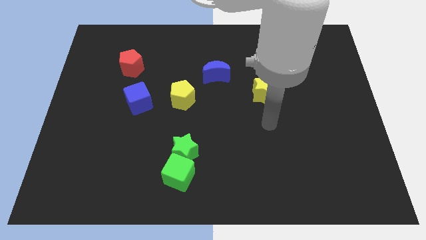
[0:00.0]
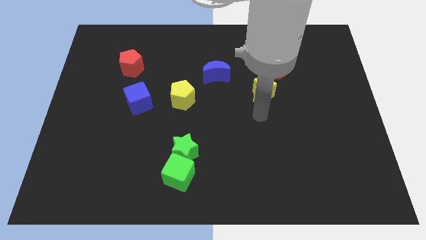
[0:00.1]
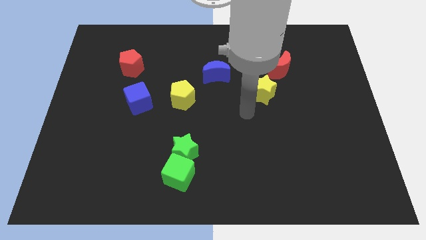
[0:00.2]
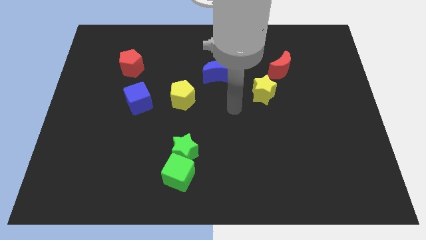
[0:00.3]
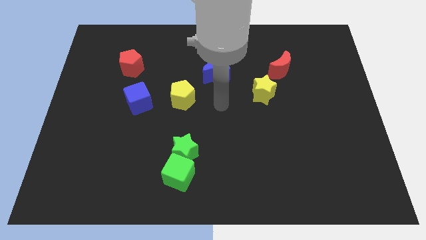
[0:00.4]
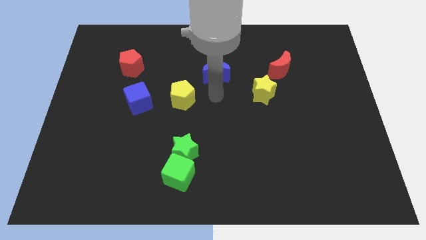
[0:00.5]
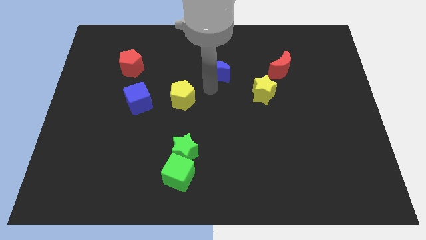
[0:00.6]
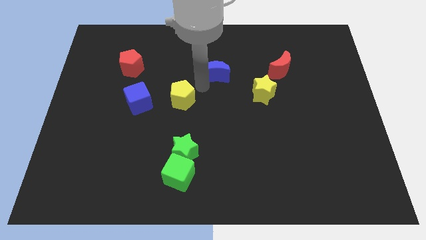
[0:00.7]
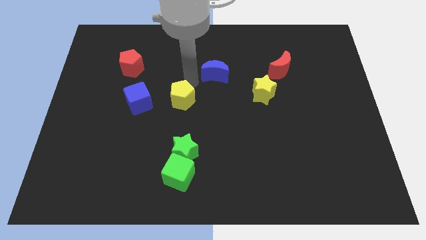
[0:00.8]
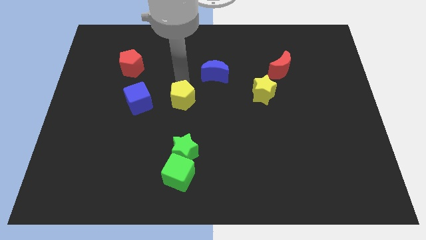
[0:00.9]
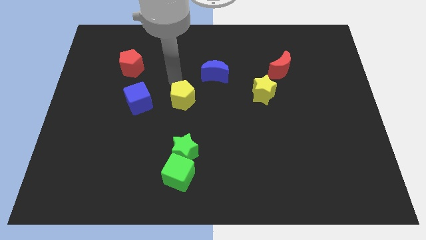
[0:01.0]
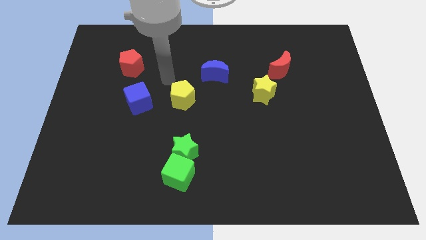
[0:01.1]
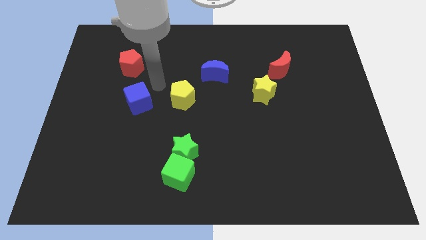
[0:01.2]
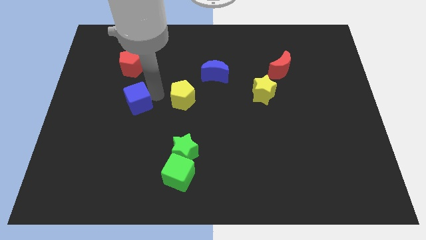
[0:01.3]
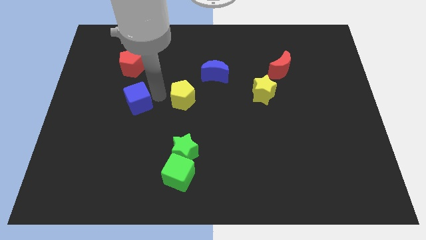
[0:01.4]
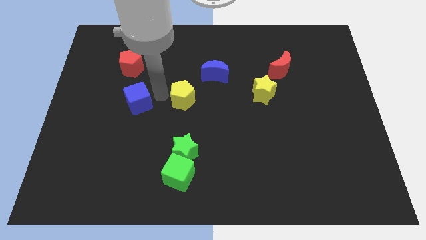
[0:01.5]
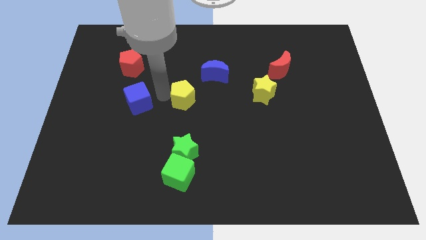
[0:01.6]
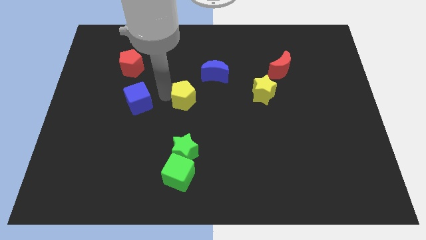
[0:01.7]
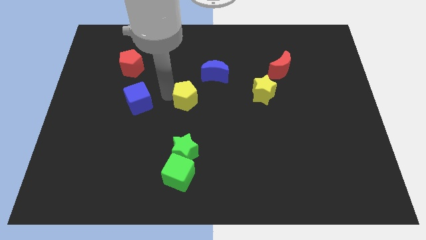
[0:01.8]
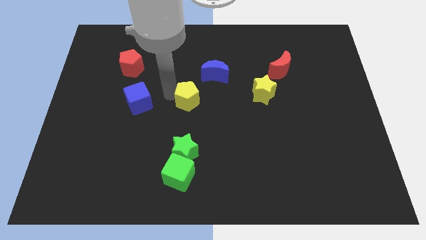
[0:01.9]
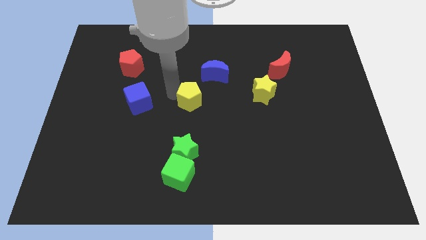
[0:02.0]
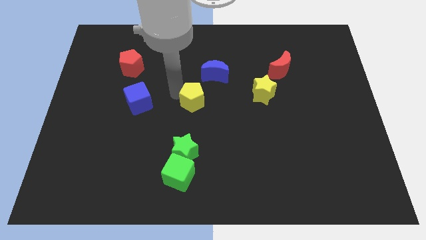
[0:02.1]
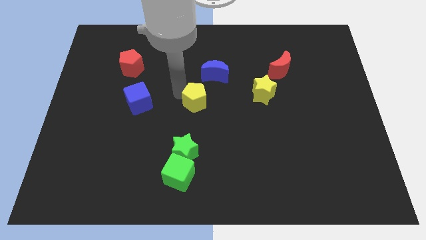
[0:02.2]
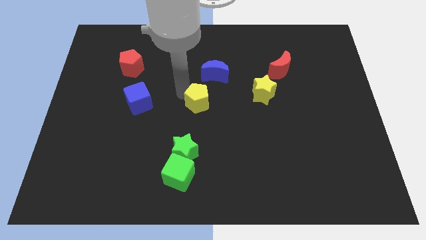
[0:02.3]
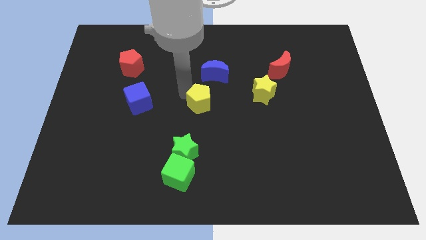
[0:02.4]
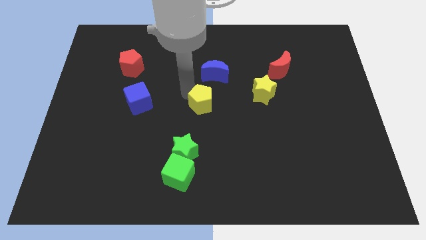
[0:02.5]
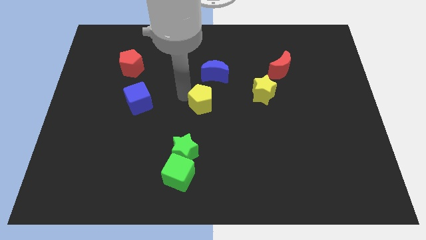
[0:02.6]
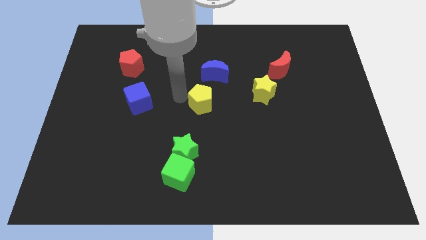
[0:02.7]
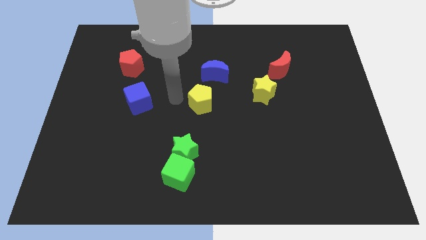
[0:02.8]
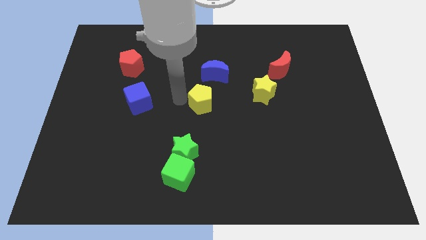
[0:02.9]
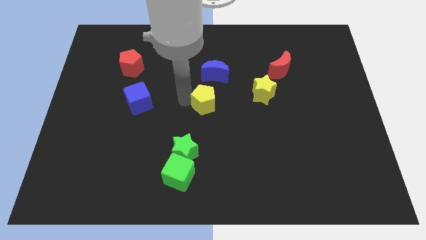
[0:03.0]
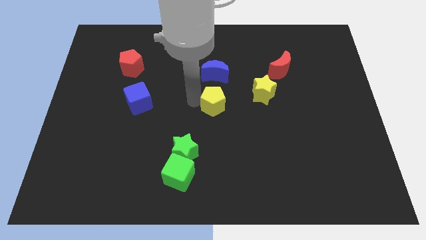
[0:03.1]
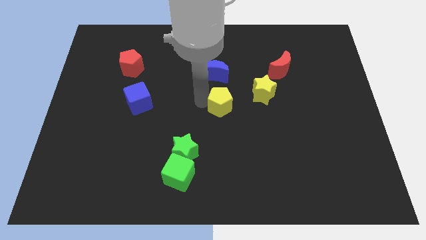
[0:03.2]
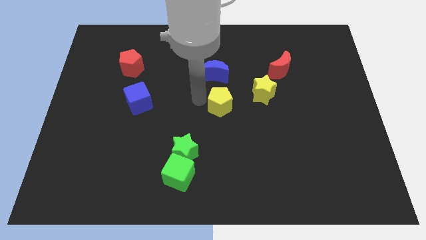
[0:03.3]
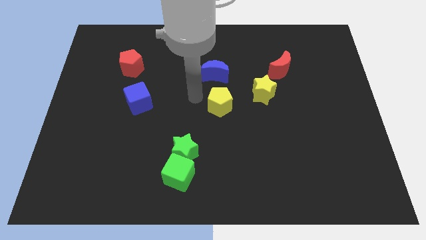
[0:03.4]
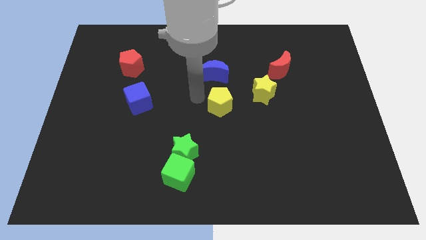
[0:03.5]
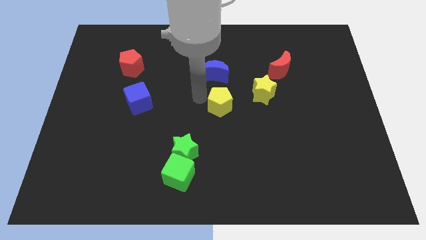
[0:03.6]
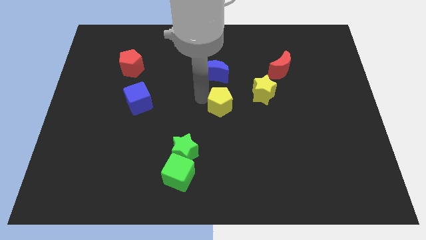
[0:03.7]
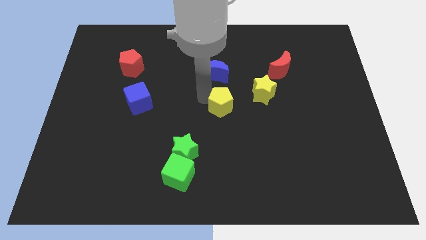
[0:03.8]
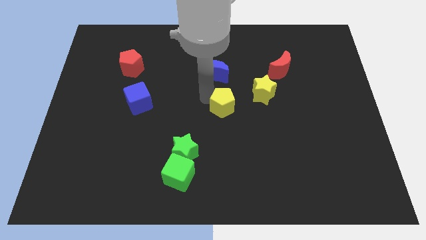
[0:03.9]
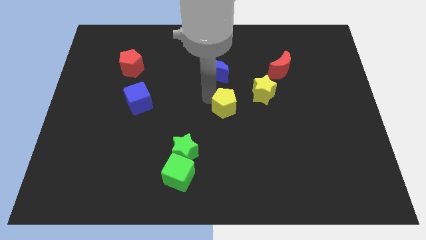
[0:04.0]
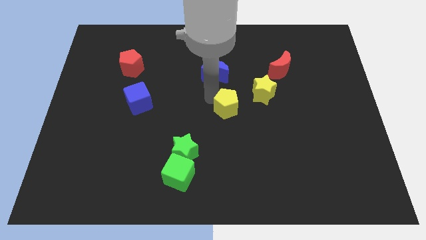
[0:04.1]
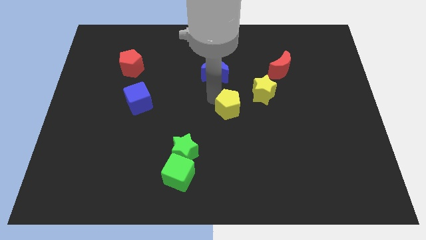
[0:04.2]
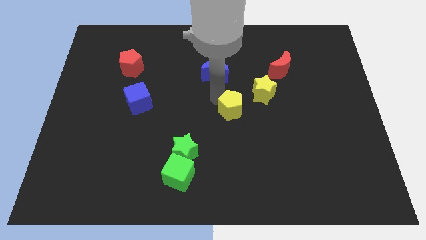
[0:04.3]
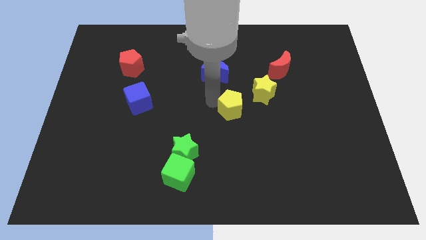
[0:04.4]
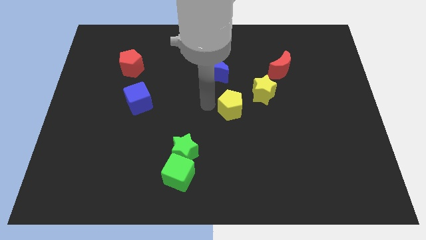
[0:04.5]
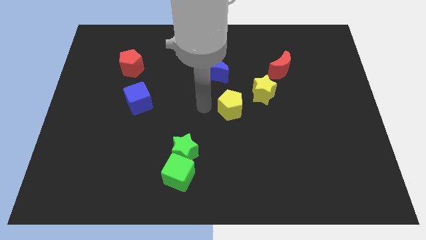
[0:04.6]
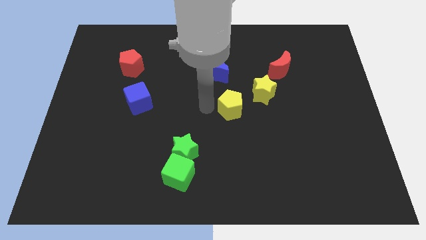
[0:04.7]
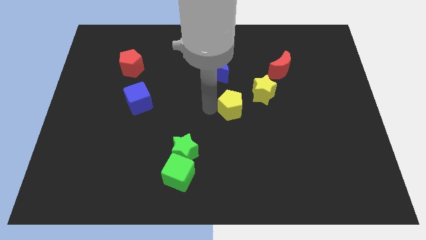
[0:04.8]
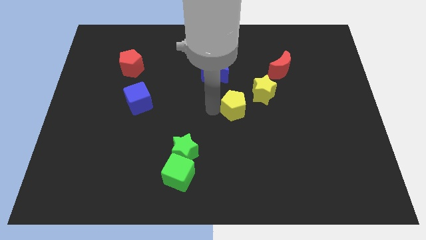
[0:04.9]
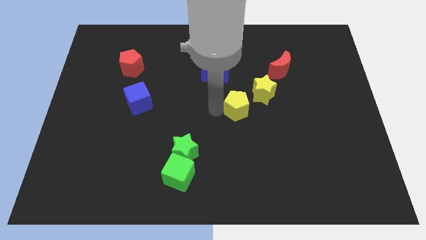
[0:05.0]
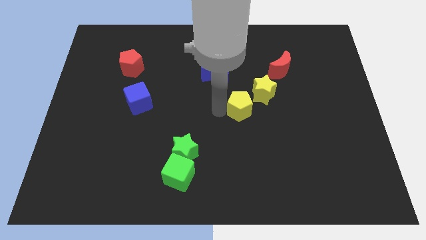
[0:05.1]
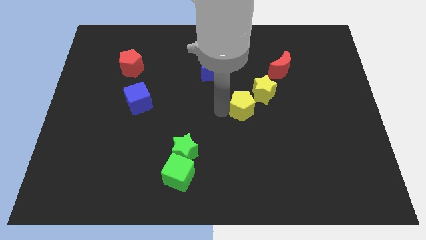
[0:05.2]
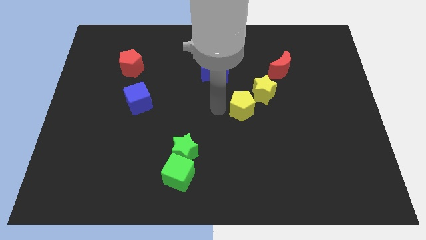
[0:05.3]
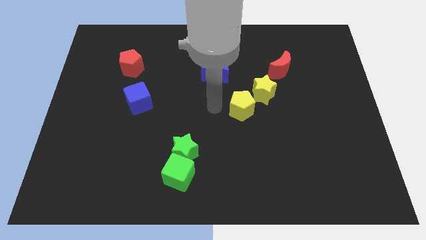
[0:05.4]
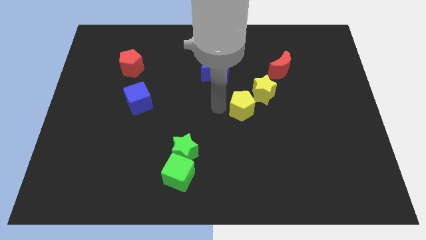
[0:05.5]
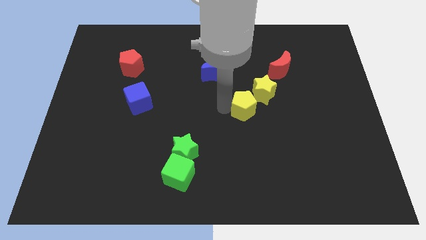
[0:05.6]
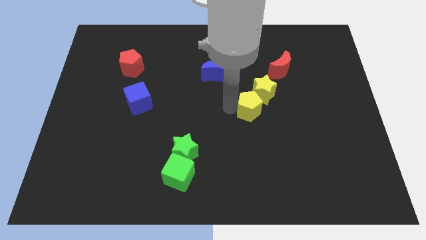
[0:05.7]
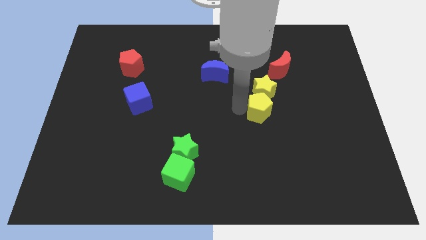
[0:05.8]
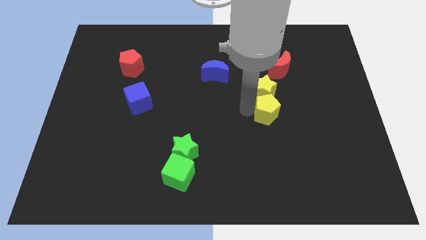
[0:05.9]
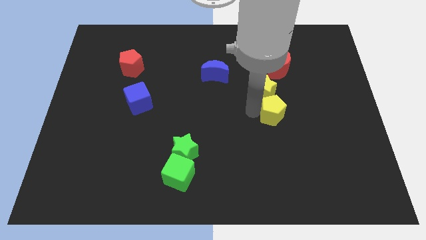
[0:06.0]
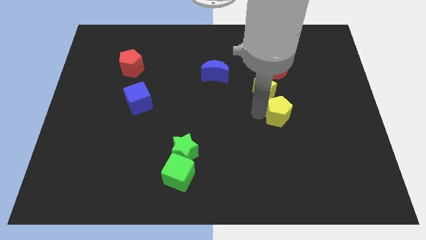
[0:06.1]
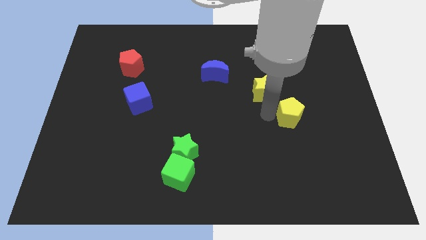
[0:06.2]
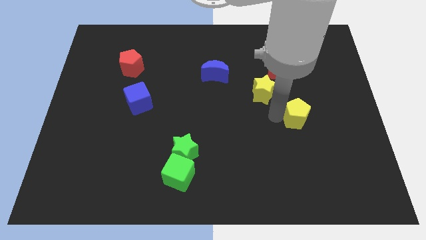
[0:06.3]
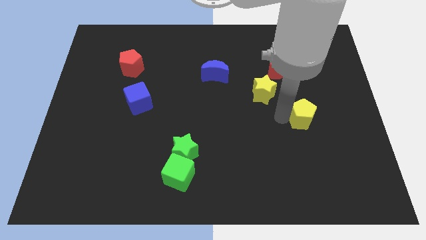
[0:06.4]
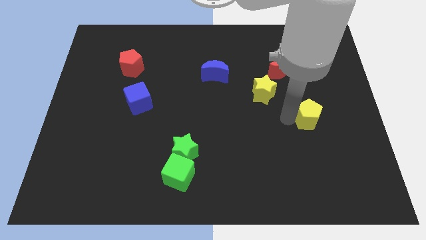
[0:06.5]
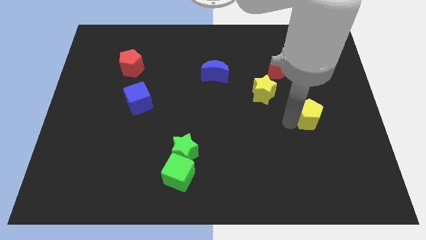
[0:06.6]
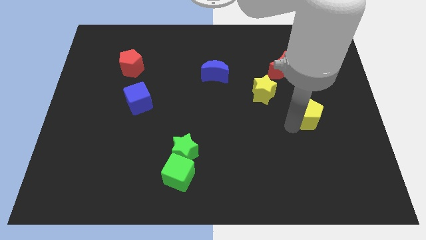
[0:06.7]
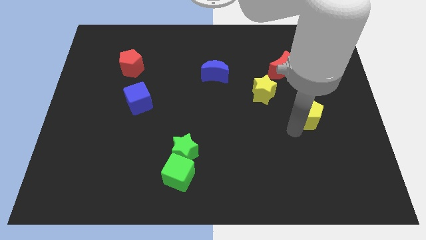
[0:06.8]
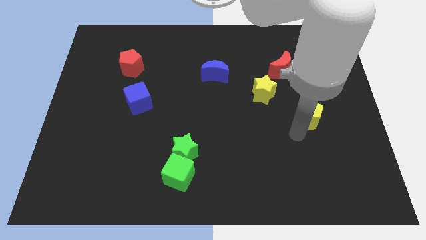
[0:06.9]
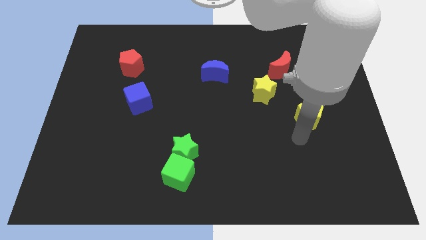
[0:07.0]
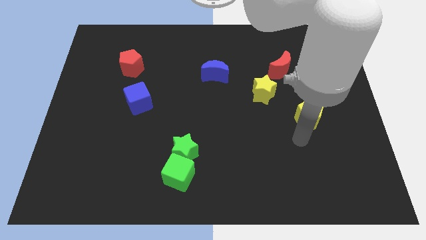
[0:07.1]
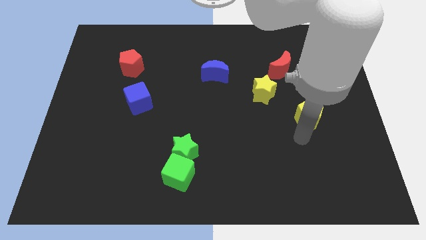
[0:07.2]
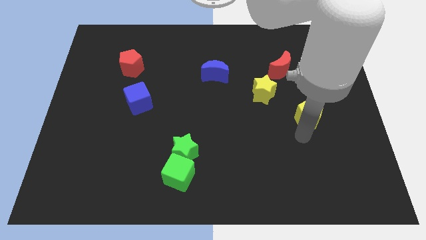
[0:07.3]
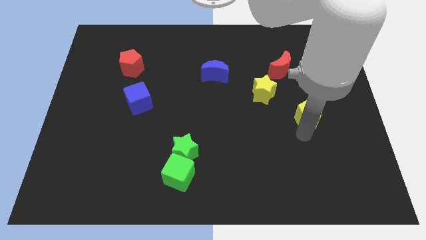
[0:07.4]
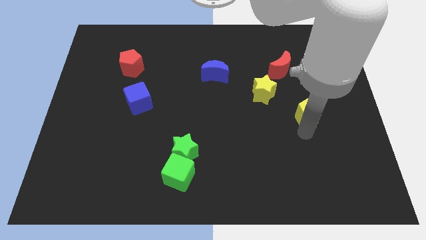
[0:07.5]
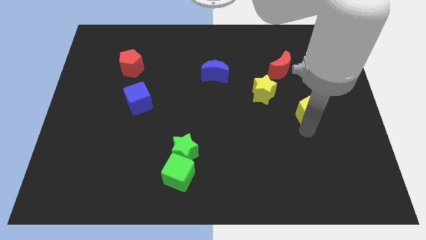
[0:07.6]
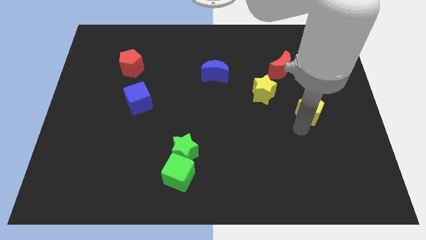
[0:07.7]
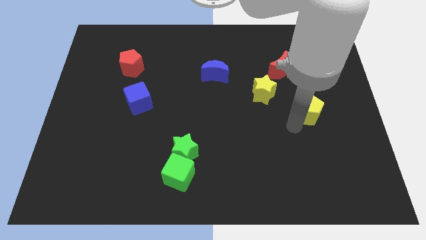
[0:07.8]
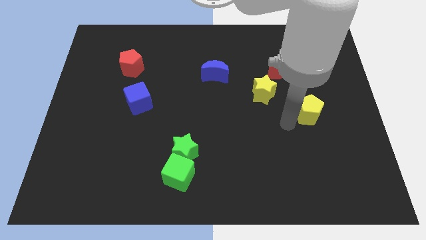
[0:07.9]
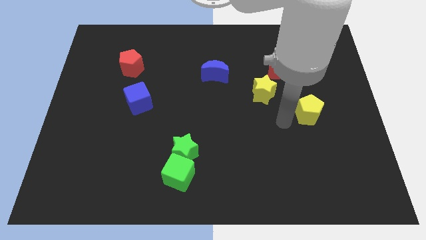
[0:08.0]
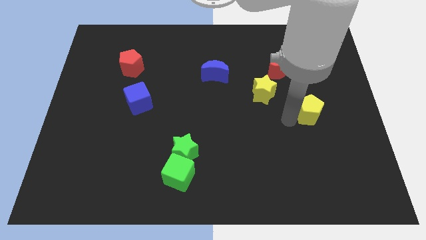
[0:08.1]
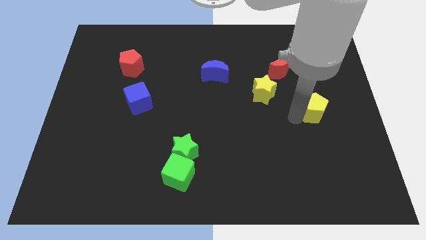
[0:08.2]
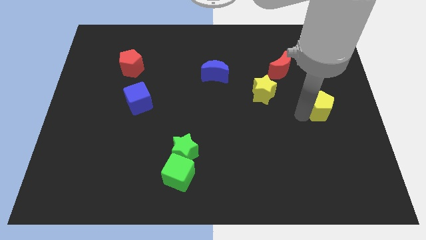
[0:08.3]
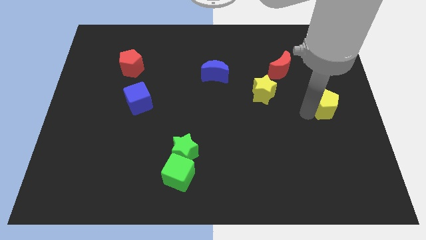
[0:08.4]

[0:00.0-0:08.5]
put the yellow pentagon to the center right
